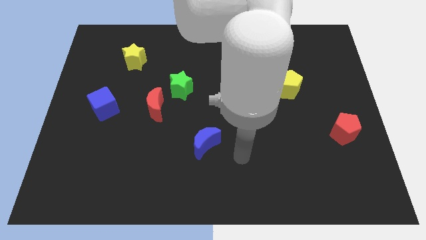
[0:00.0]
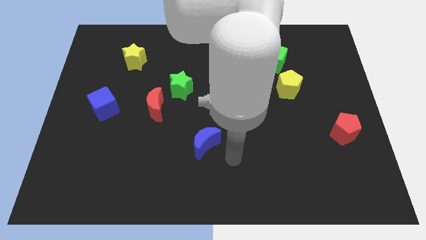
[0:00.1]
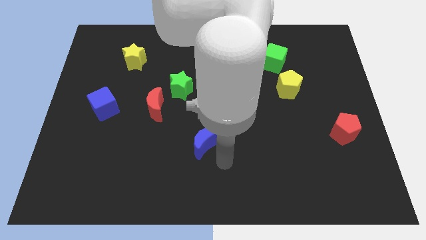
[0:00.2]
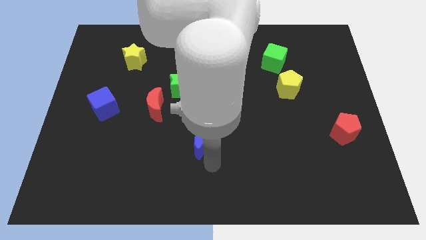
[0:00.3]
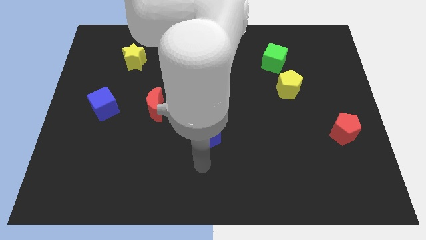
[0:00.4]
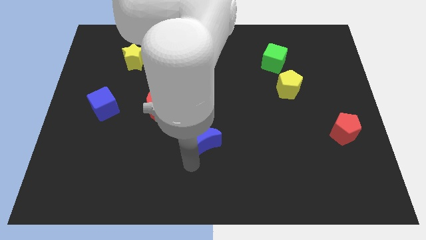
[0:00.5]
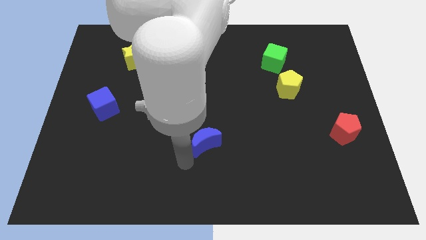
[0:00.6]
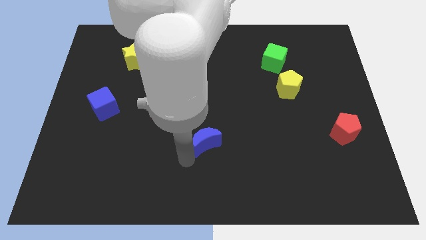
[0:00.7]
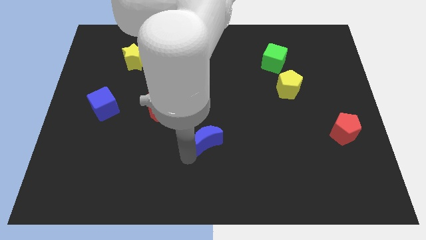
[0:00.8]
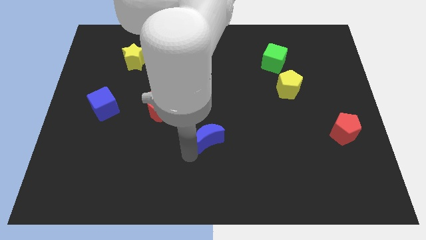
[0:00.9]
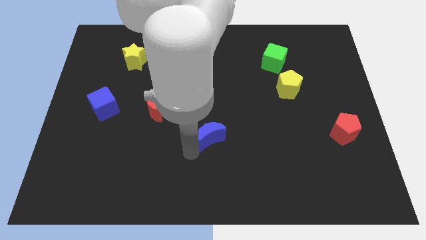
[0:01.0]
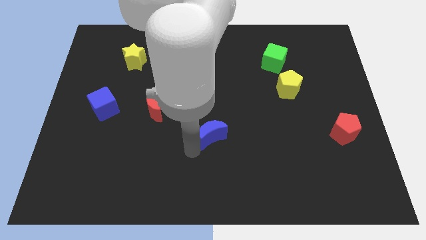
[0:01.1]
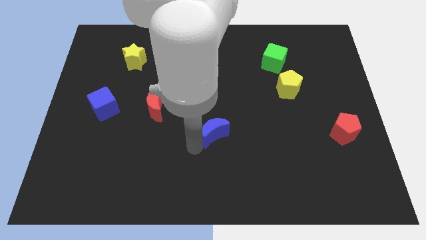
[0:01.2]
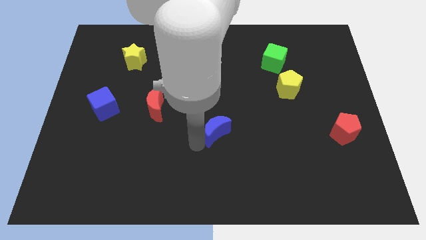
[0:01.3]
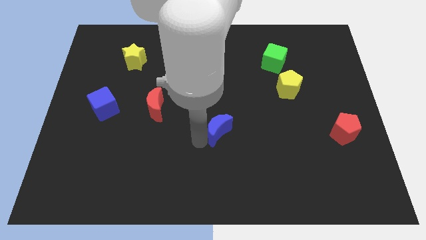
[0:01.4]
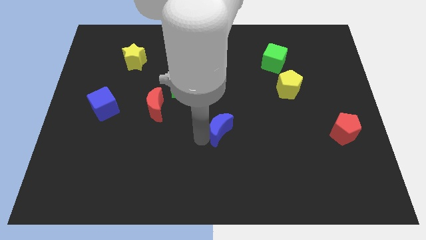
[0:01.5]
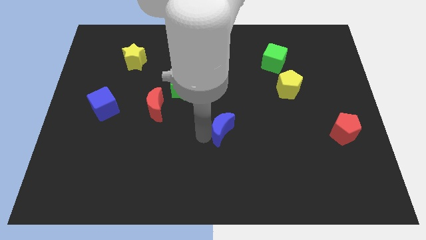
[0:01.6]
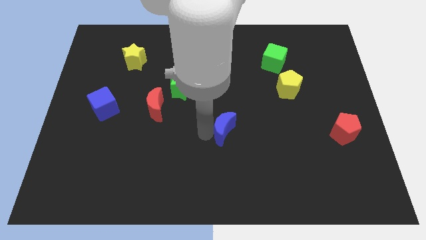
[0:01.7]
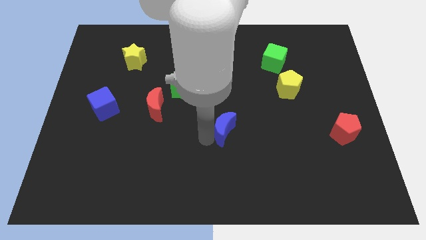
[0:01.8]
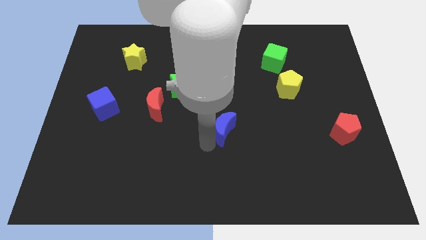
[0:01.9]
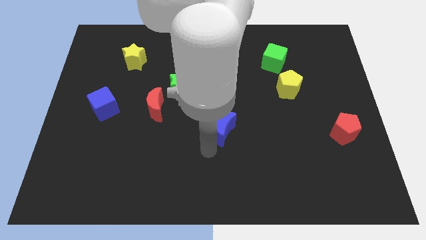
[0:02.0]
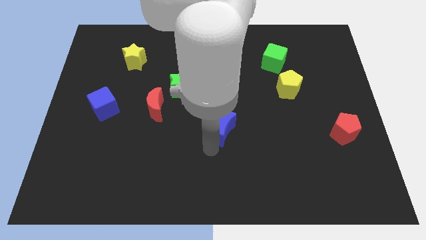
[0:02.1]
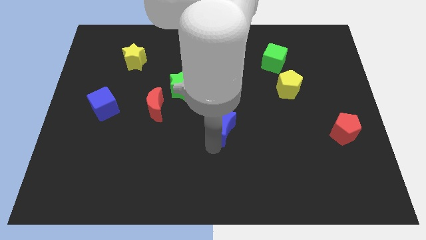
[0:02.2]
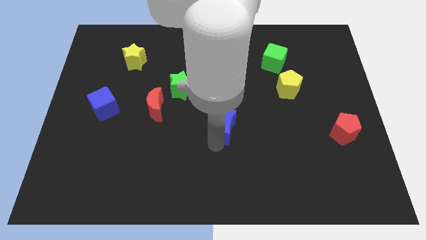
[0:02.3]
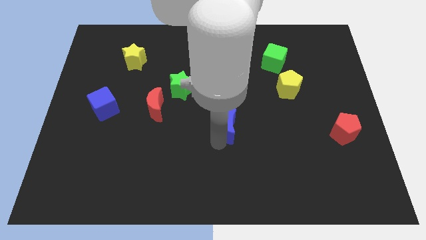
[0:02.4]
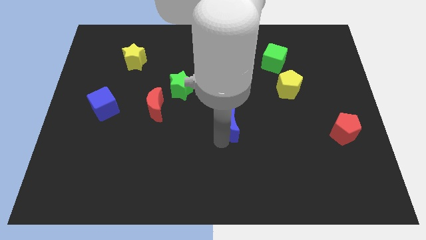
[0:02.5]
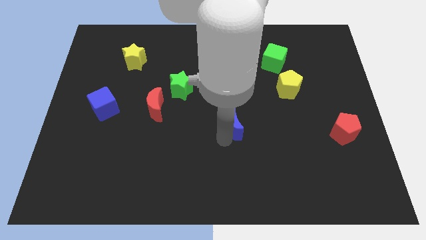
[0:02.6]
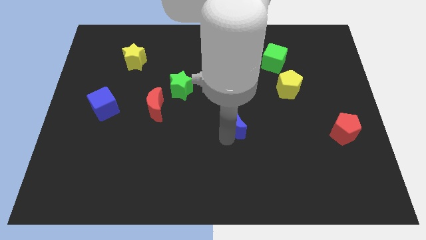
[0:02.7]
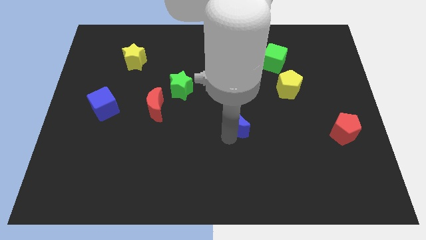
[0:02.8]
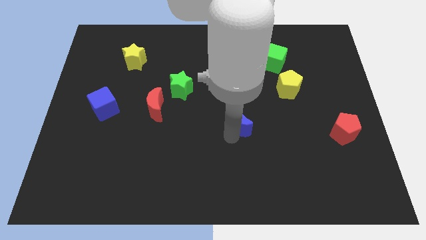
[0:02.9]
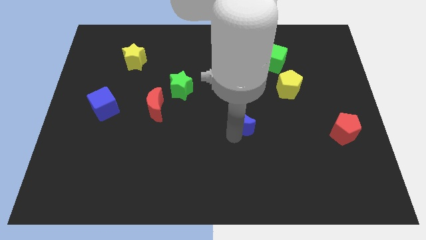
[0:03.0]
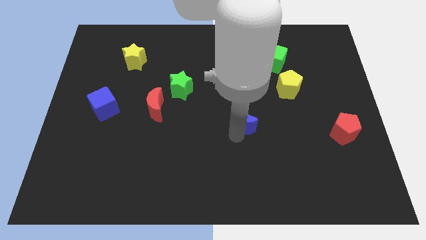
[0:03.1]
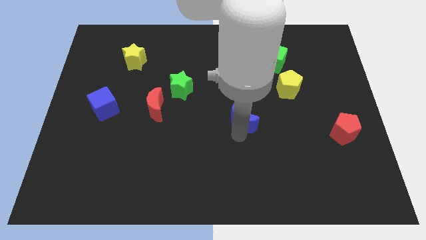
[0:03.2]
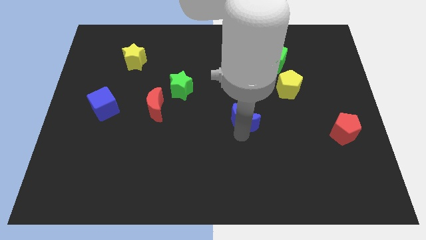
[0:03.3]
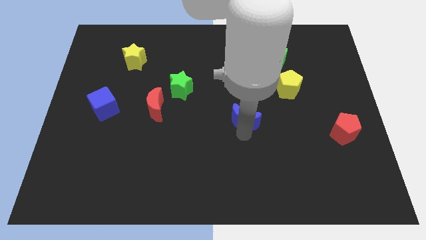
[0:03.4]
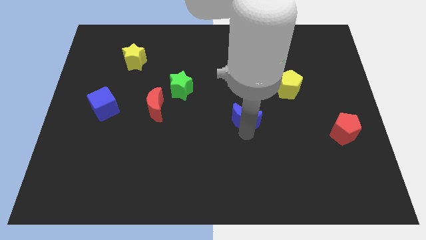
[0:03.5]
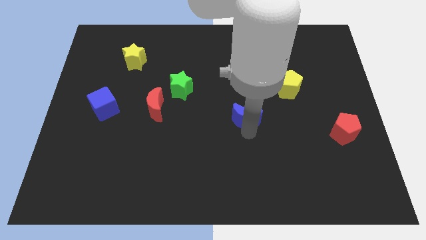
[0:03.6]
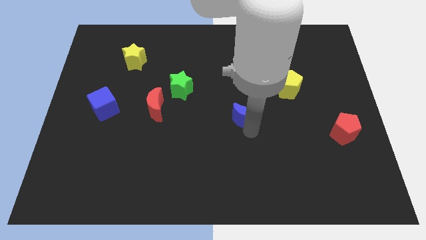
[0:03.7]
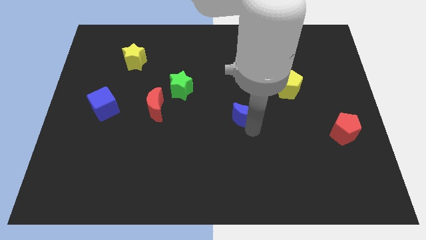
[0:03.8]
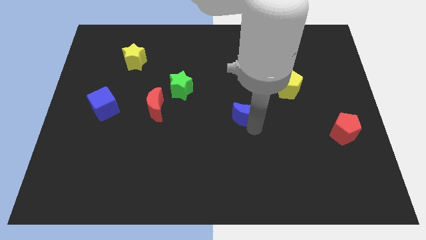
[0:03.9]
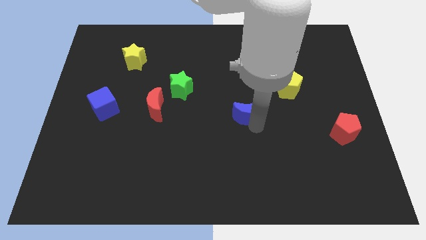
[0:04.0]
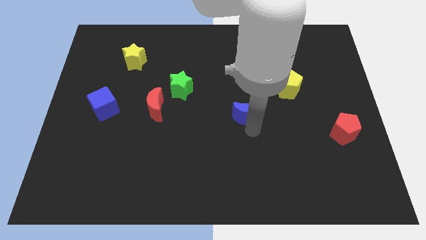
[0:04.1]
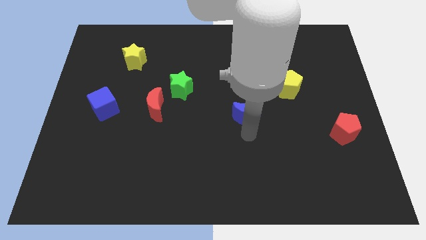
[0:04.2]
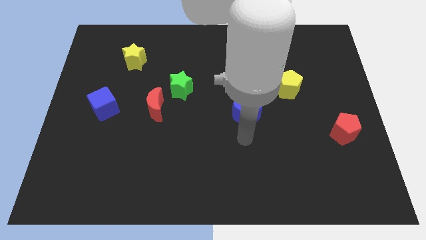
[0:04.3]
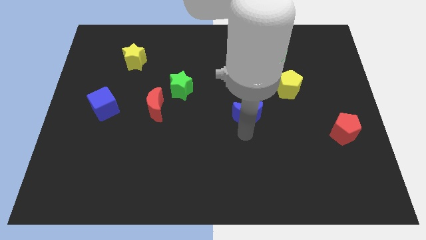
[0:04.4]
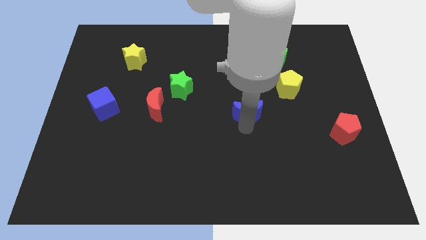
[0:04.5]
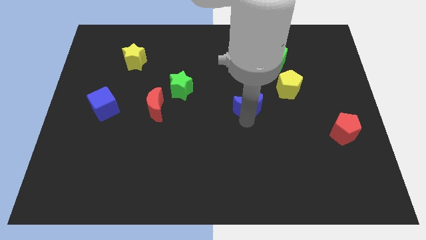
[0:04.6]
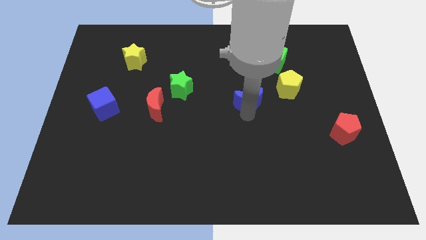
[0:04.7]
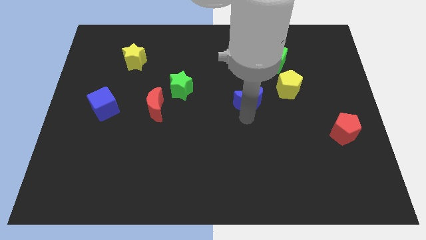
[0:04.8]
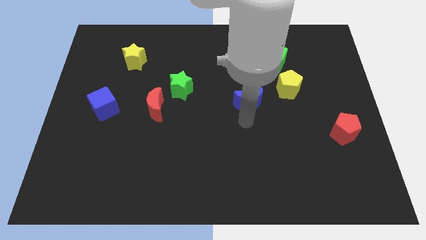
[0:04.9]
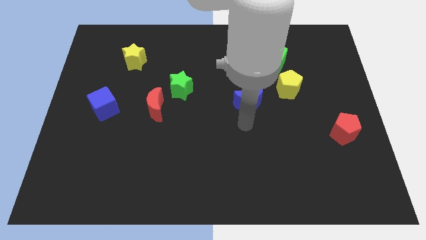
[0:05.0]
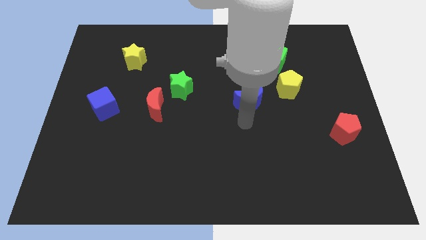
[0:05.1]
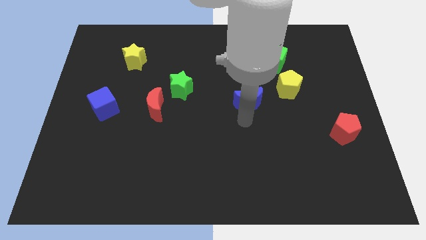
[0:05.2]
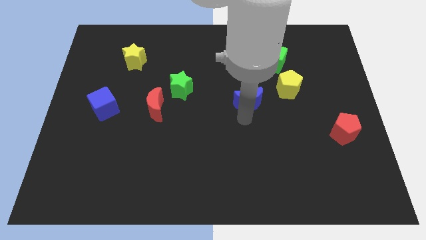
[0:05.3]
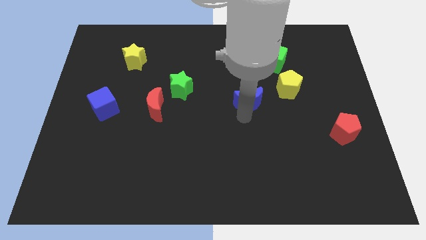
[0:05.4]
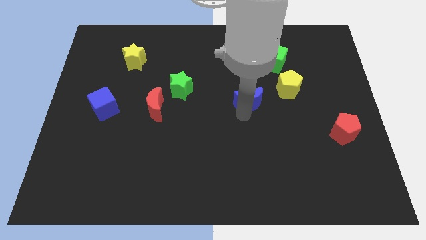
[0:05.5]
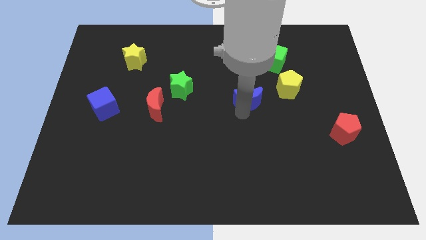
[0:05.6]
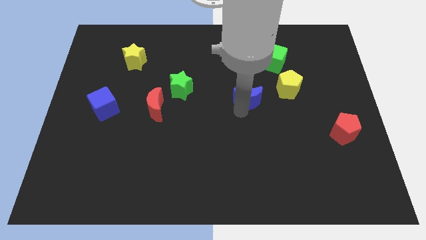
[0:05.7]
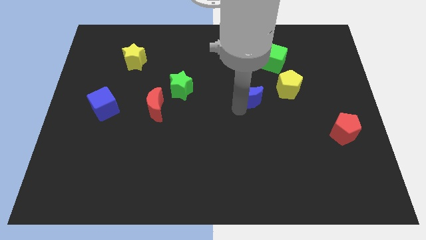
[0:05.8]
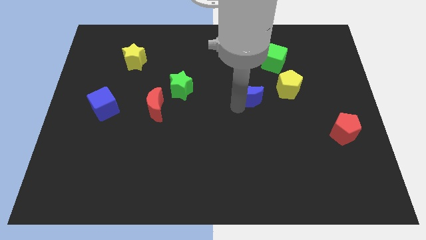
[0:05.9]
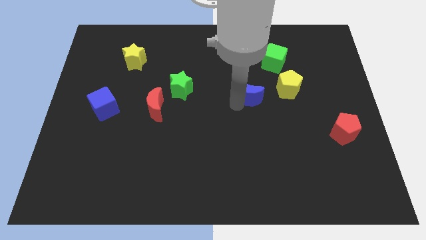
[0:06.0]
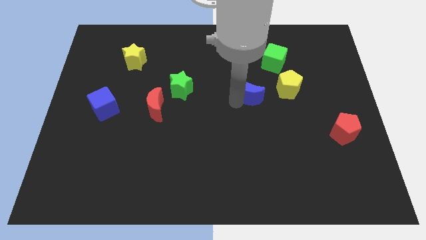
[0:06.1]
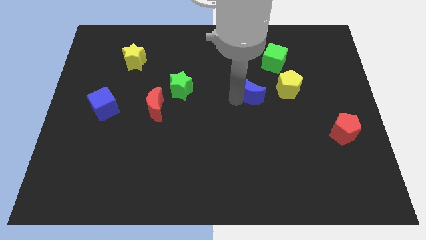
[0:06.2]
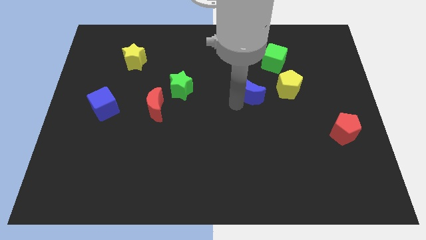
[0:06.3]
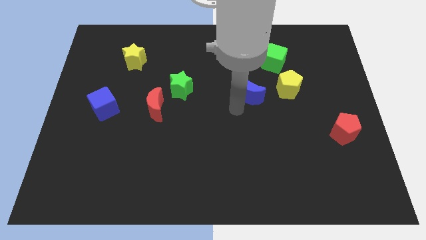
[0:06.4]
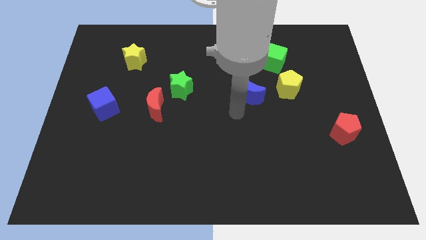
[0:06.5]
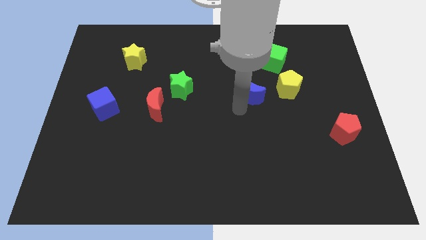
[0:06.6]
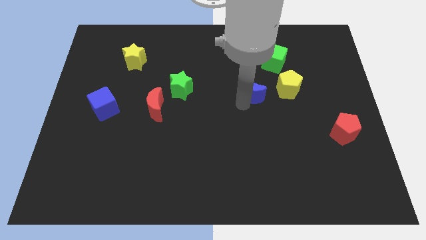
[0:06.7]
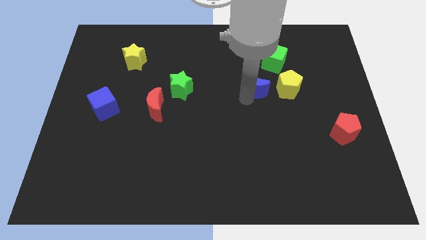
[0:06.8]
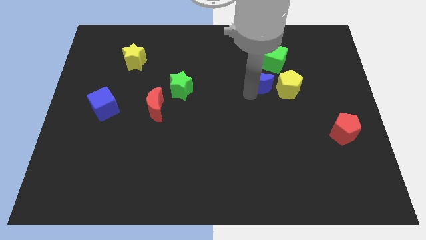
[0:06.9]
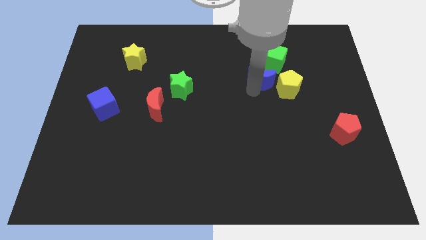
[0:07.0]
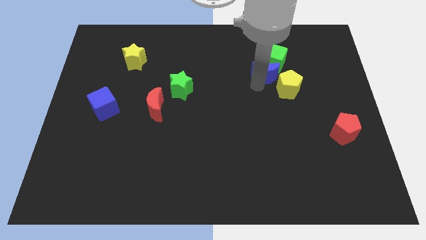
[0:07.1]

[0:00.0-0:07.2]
move the blue moon close to the green cube

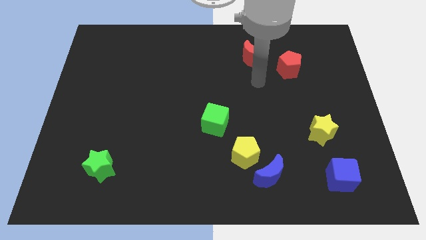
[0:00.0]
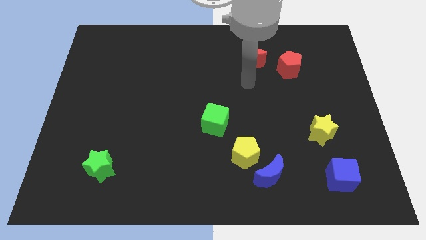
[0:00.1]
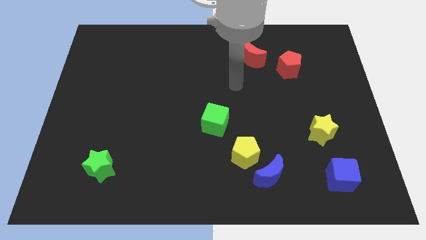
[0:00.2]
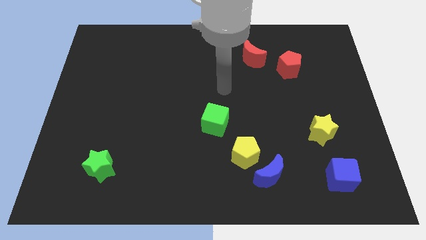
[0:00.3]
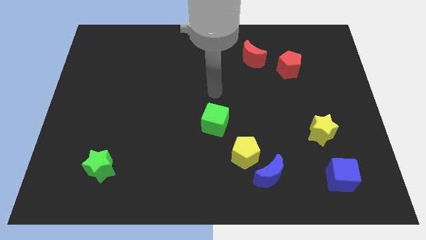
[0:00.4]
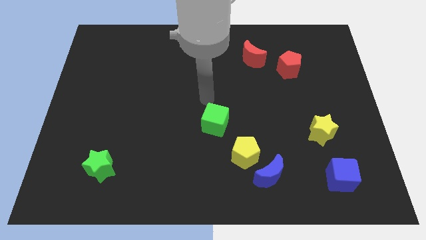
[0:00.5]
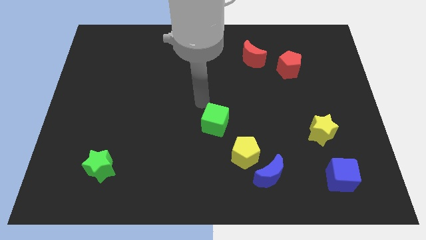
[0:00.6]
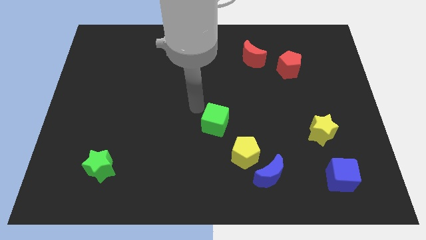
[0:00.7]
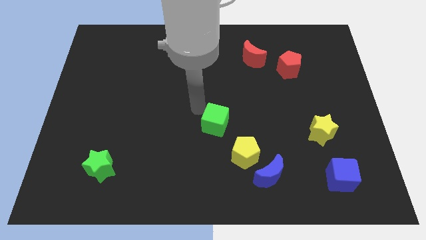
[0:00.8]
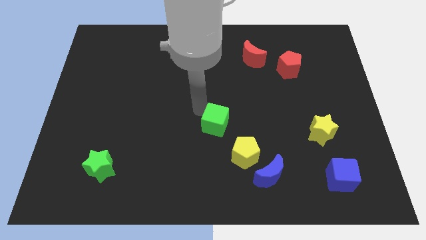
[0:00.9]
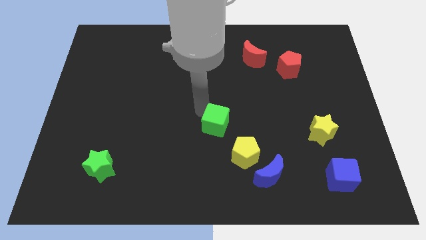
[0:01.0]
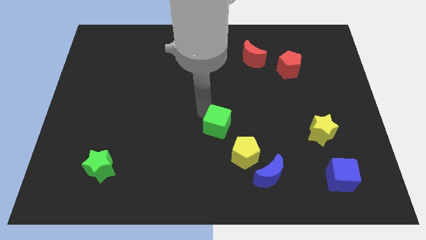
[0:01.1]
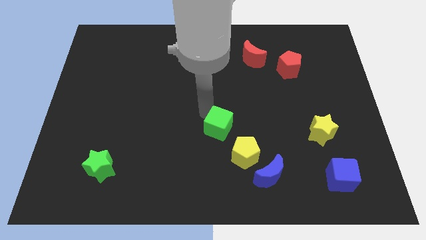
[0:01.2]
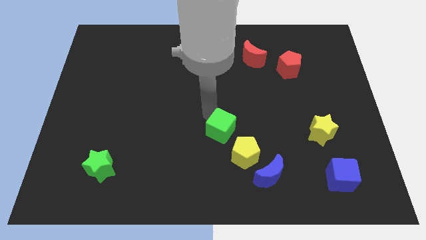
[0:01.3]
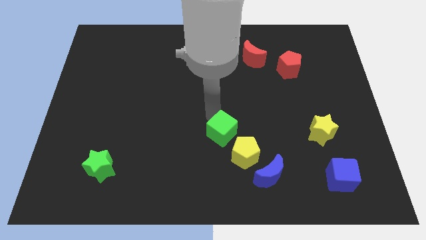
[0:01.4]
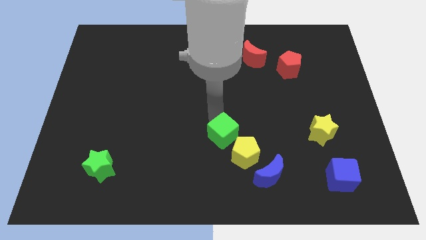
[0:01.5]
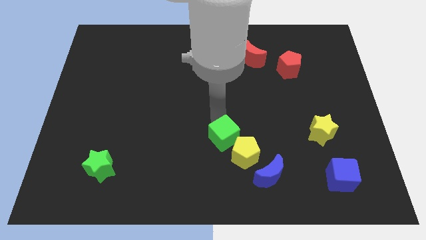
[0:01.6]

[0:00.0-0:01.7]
move the green cube next to the yellow pentagon
